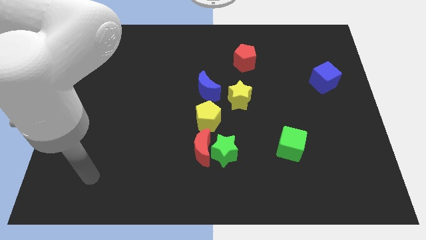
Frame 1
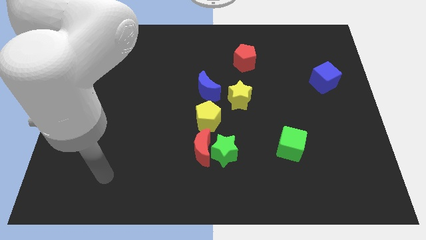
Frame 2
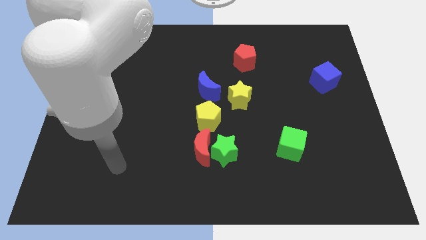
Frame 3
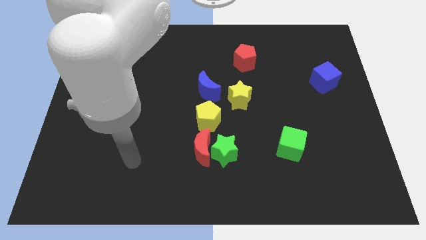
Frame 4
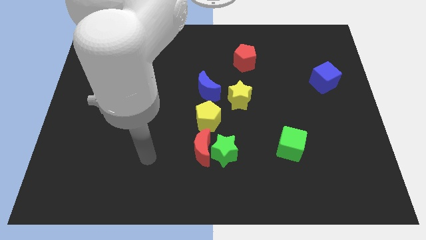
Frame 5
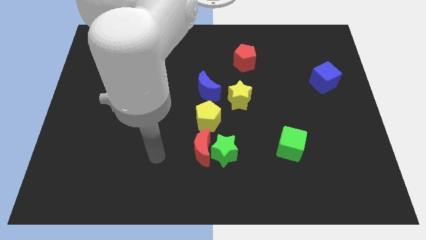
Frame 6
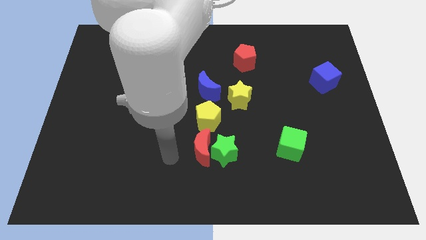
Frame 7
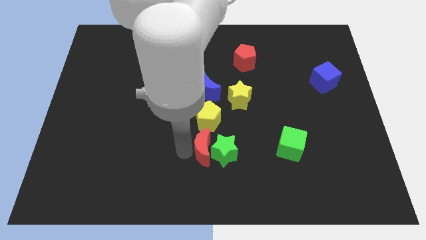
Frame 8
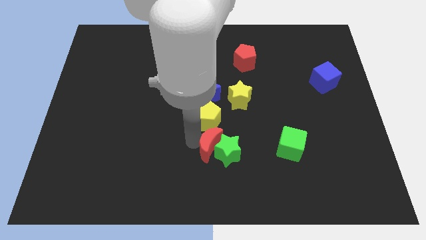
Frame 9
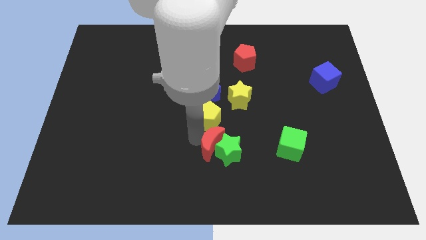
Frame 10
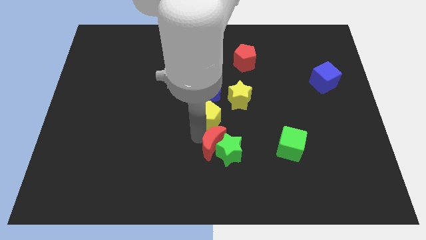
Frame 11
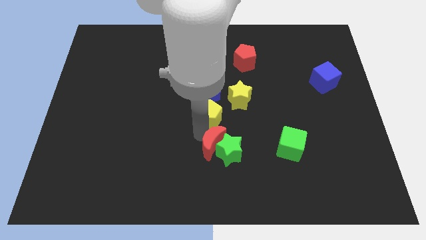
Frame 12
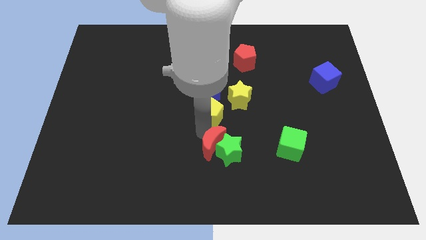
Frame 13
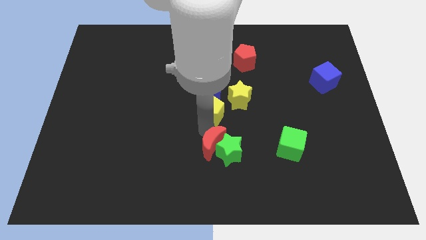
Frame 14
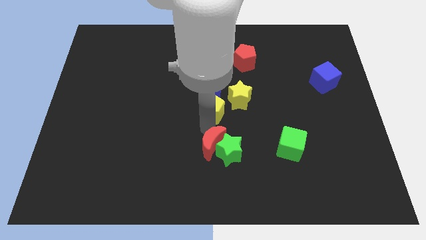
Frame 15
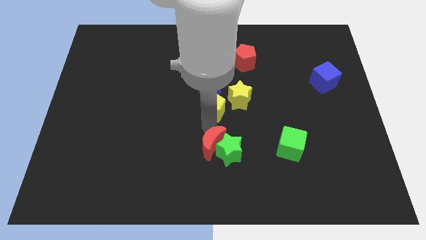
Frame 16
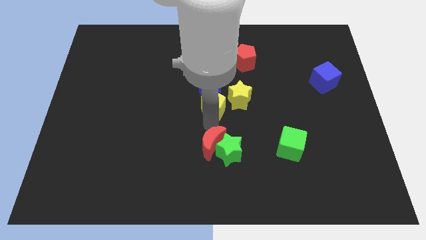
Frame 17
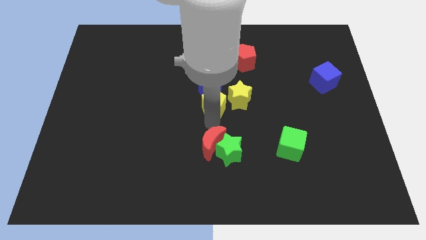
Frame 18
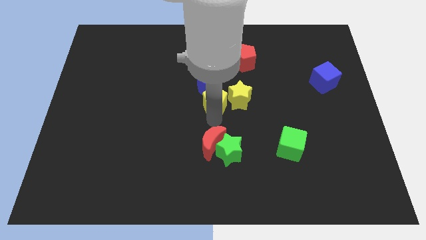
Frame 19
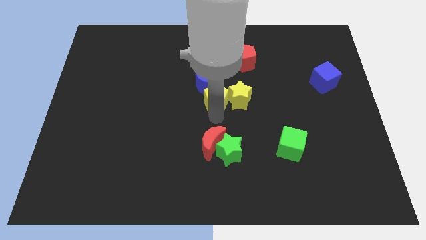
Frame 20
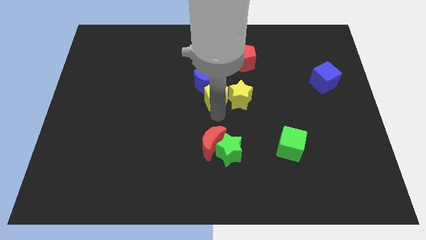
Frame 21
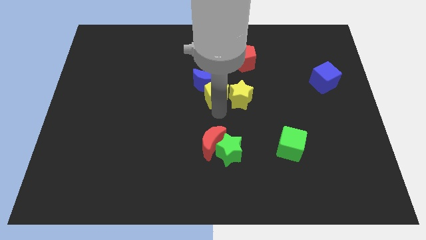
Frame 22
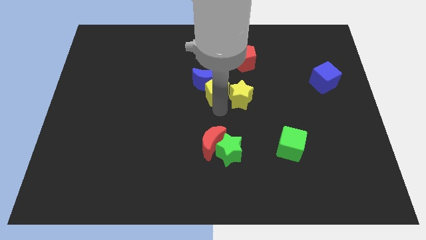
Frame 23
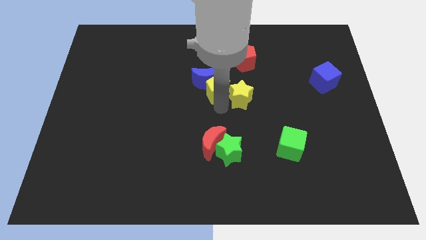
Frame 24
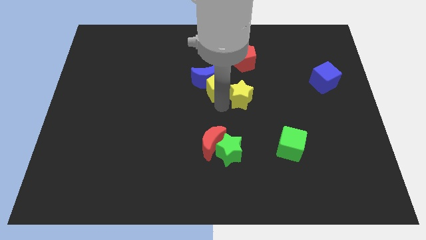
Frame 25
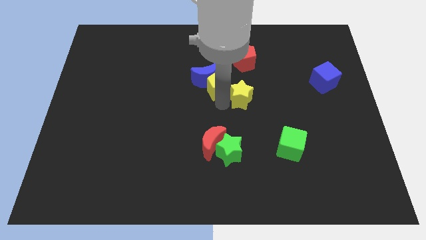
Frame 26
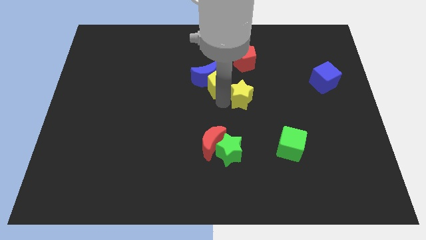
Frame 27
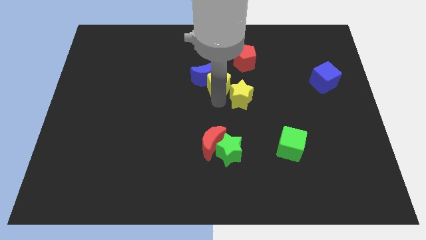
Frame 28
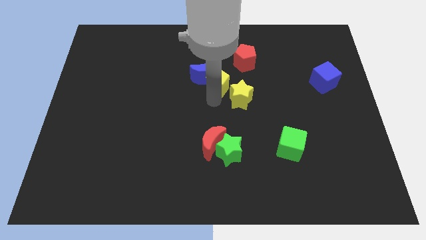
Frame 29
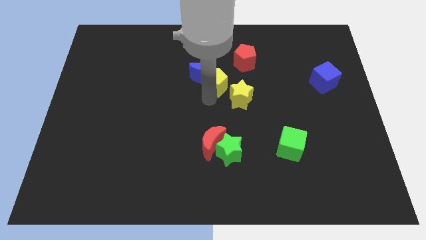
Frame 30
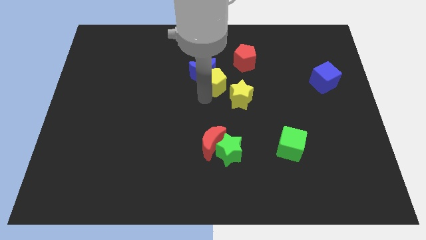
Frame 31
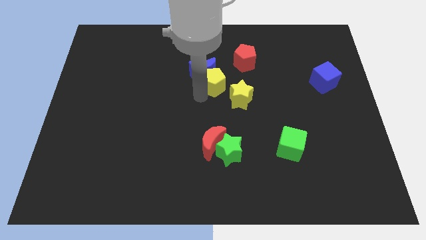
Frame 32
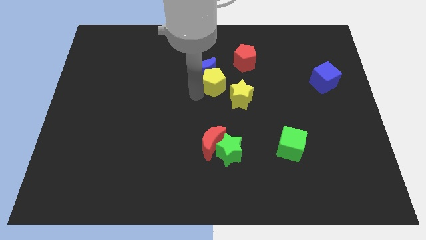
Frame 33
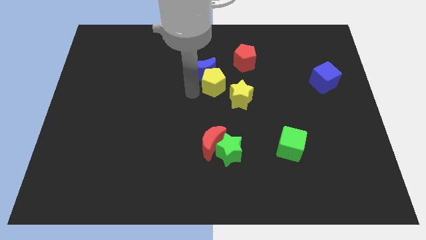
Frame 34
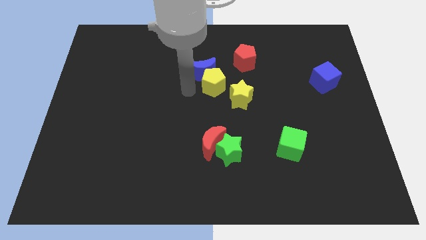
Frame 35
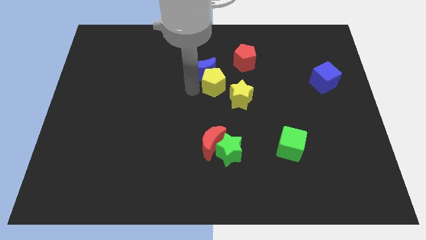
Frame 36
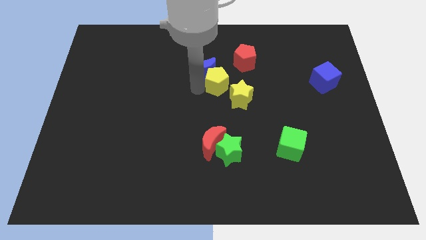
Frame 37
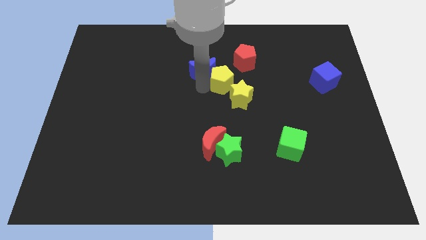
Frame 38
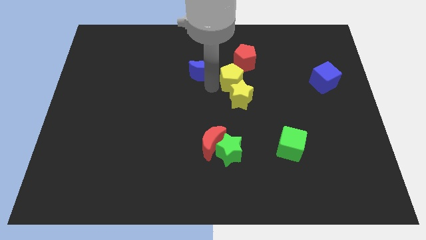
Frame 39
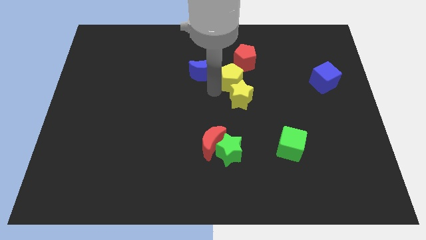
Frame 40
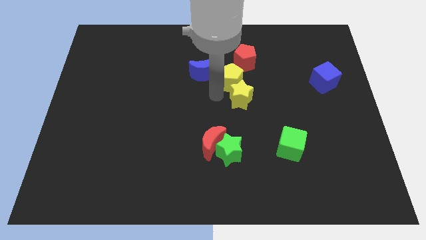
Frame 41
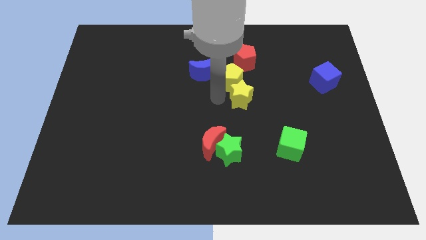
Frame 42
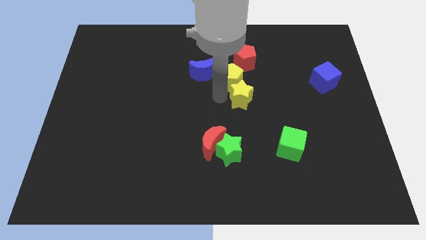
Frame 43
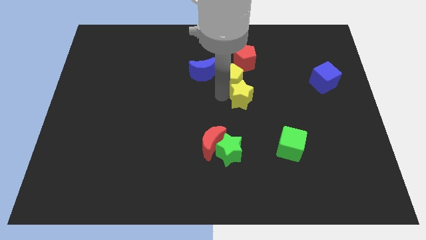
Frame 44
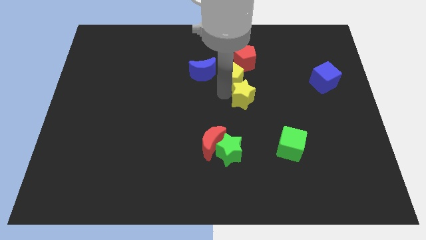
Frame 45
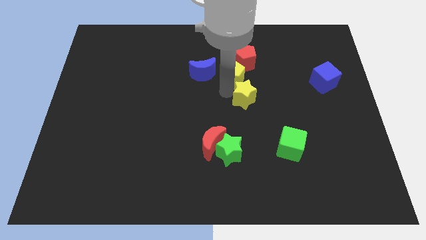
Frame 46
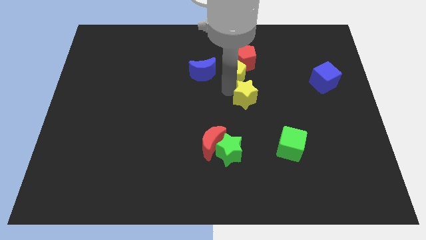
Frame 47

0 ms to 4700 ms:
move the yellow pentagon next to the red pentagon

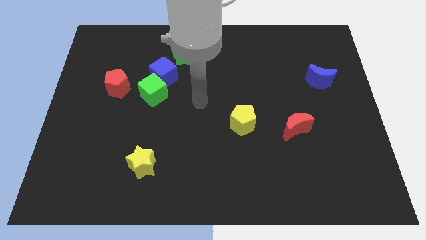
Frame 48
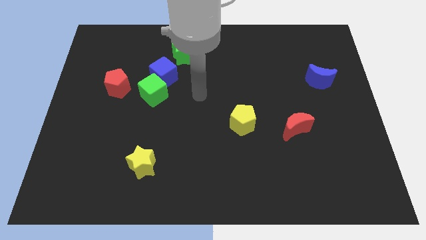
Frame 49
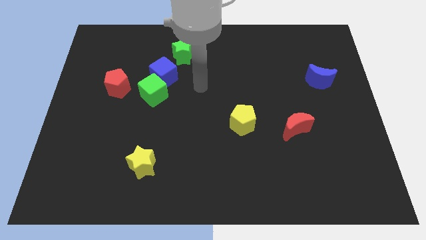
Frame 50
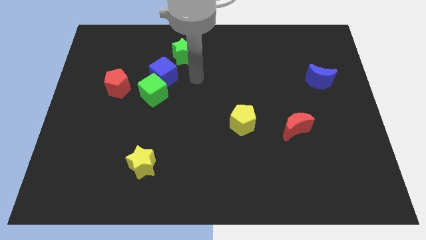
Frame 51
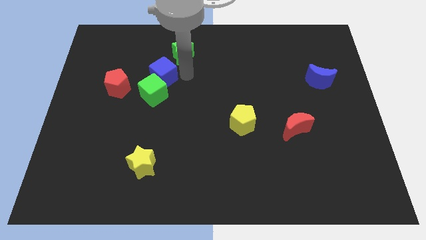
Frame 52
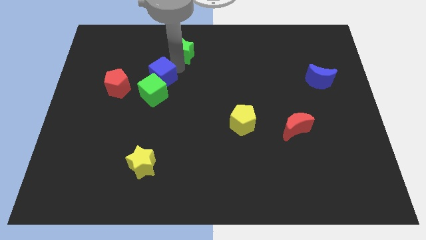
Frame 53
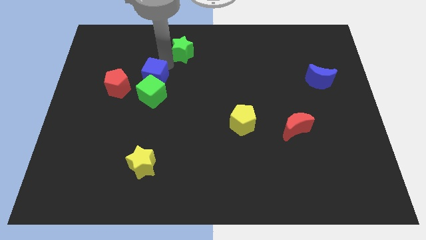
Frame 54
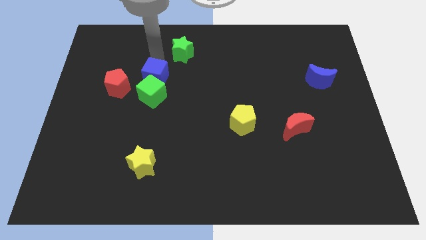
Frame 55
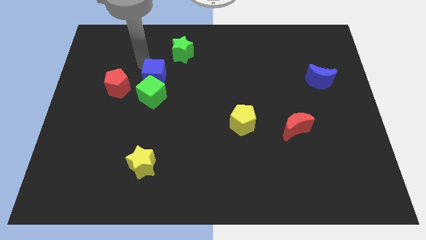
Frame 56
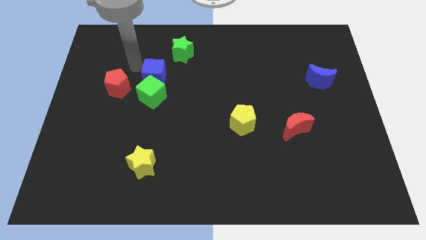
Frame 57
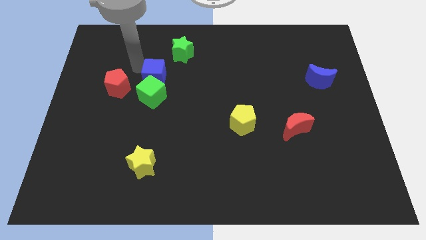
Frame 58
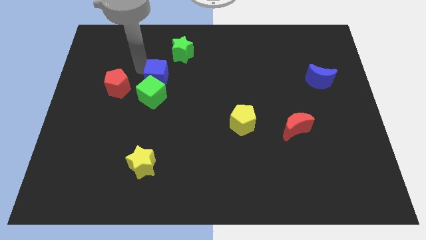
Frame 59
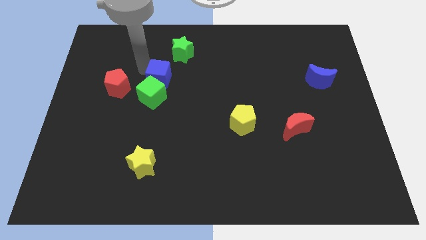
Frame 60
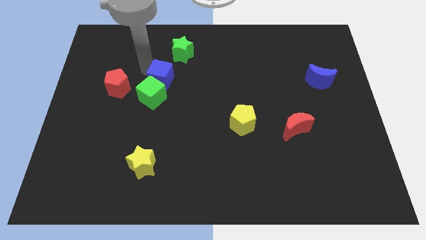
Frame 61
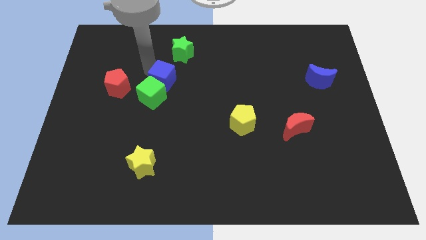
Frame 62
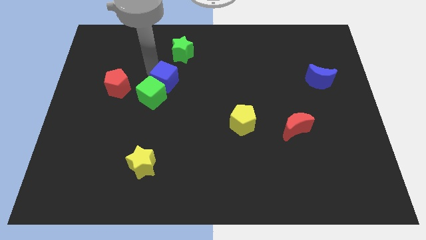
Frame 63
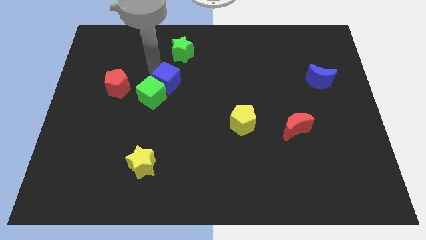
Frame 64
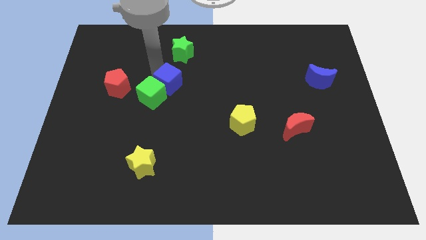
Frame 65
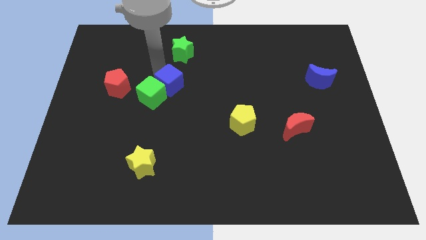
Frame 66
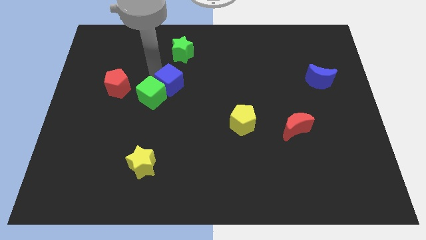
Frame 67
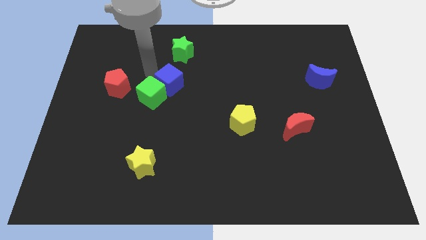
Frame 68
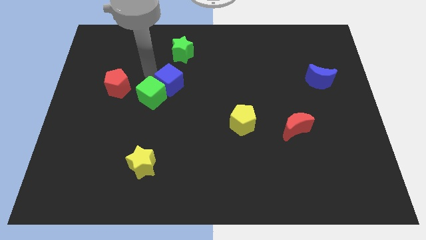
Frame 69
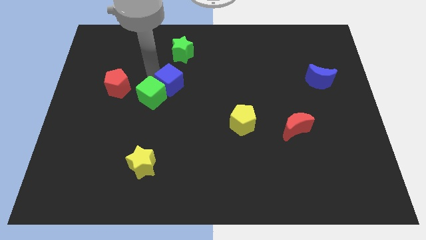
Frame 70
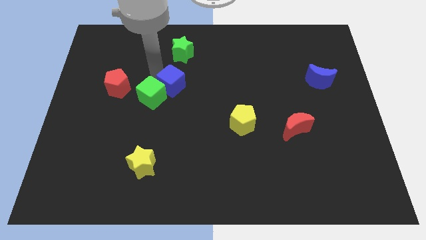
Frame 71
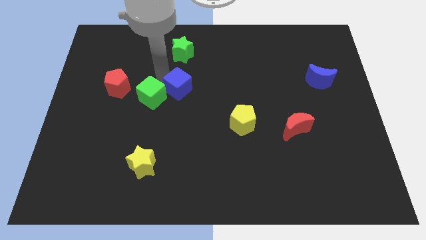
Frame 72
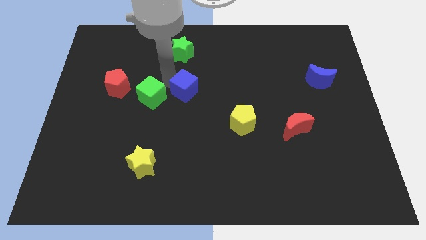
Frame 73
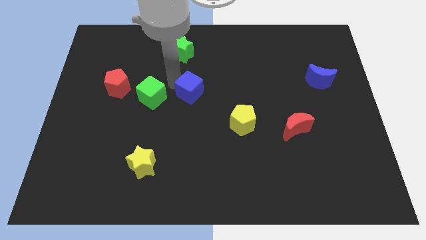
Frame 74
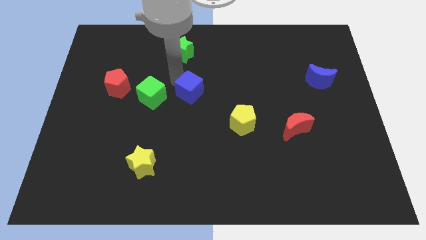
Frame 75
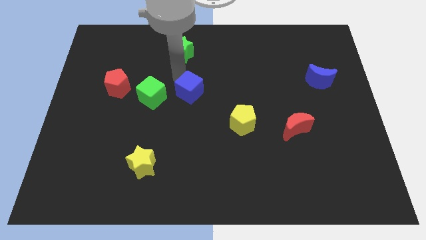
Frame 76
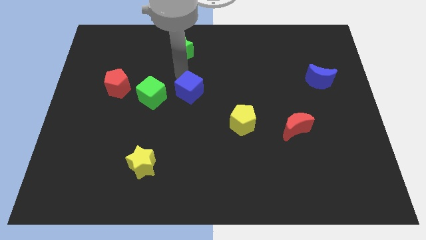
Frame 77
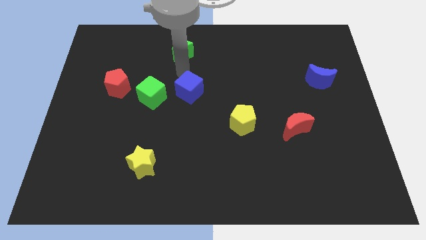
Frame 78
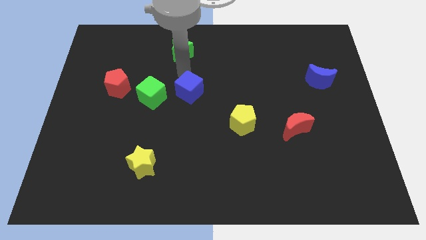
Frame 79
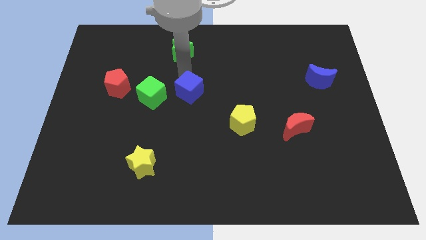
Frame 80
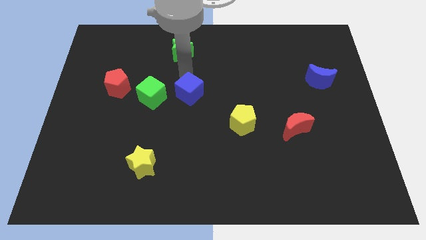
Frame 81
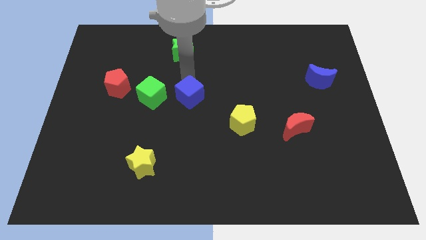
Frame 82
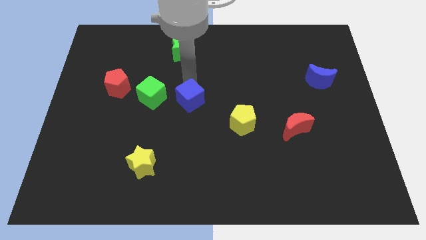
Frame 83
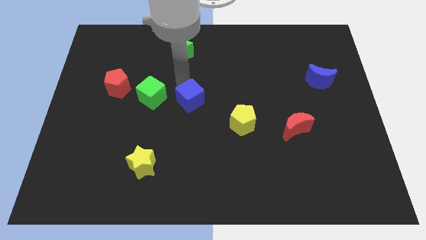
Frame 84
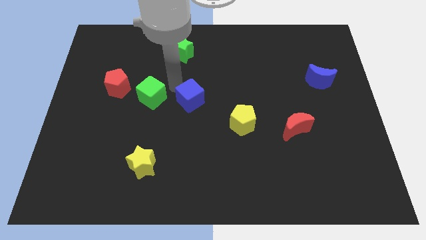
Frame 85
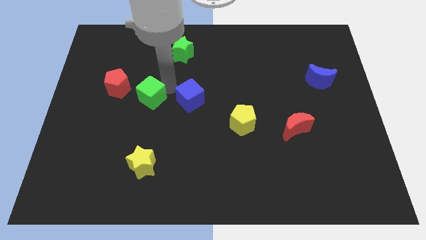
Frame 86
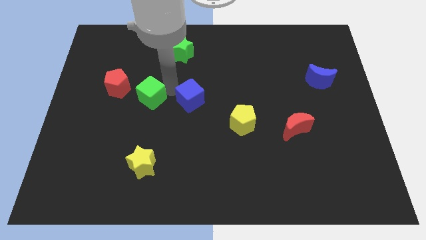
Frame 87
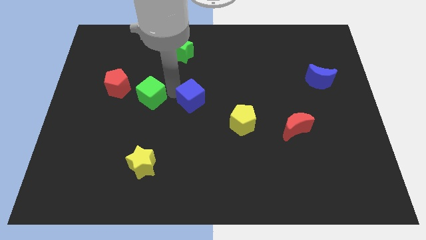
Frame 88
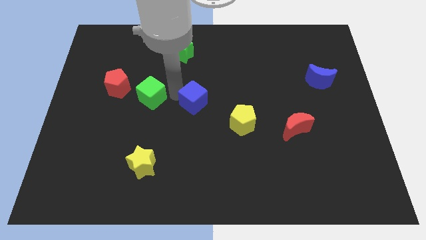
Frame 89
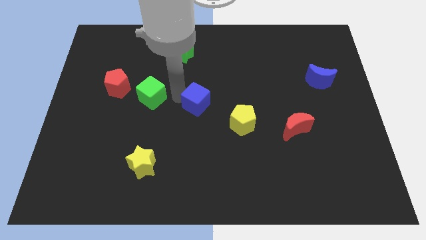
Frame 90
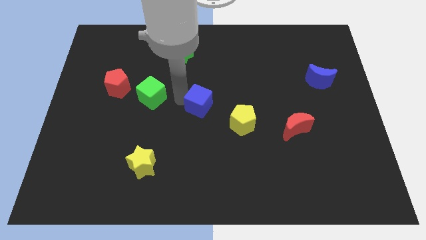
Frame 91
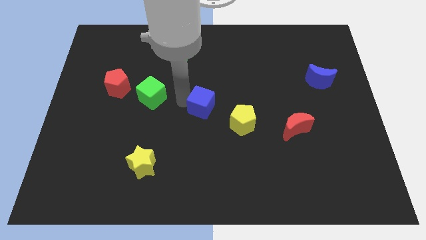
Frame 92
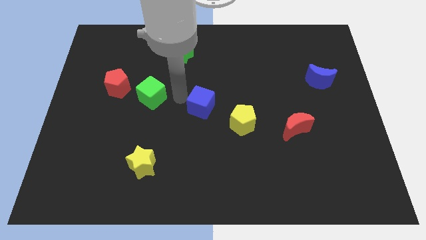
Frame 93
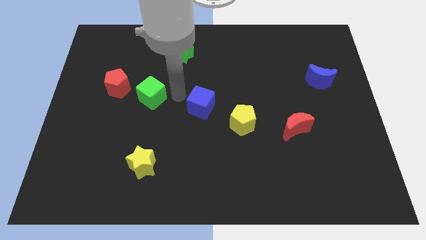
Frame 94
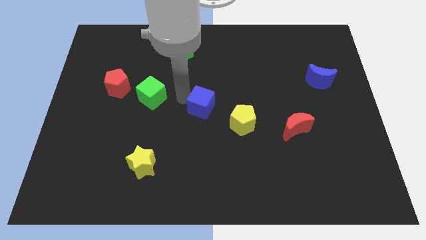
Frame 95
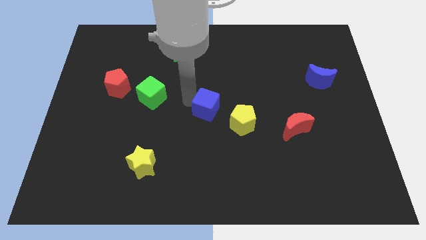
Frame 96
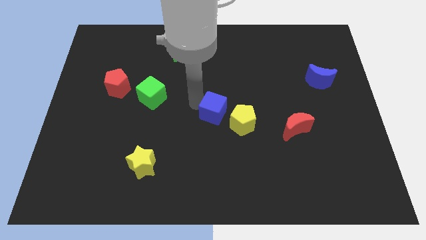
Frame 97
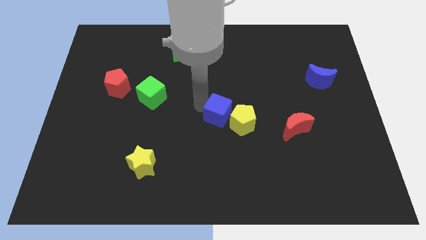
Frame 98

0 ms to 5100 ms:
slide the blue cube to the yellow pentagon
